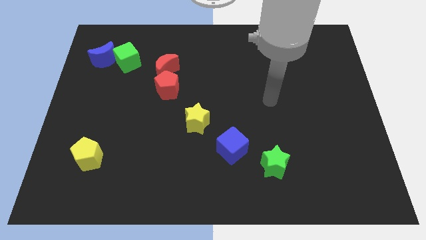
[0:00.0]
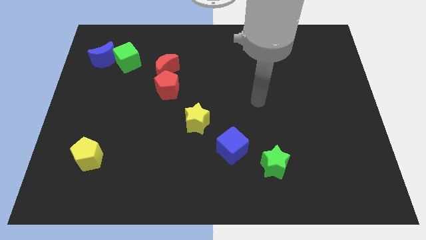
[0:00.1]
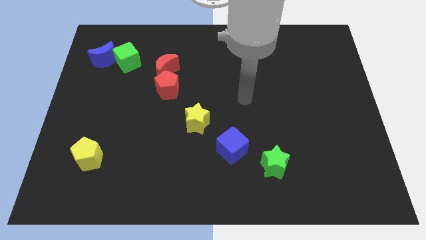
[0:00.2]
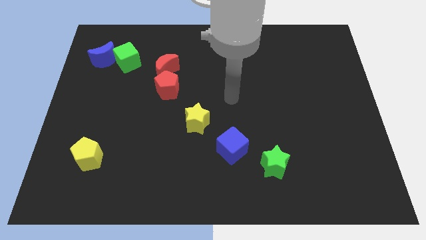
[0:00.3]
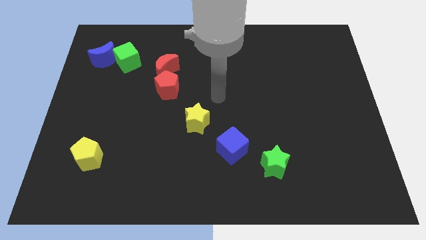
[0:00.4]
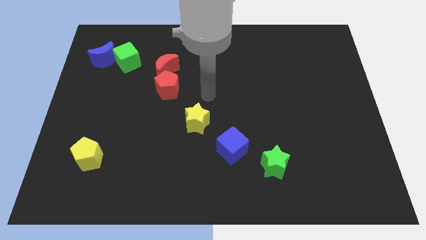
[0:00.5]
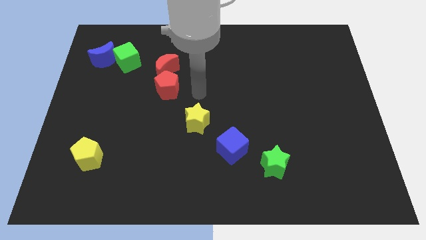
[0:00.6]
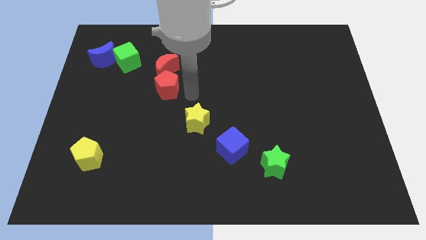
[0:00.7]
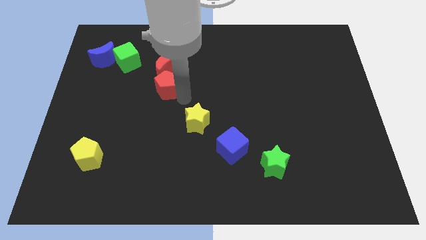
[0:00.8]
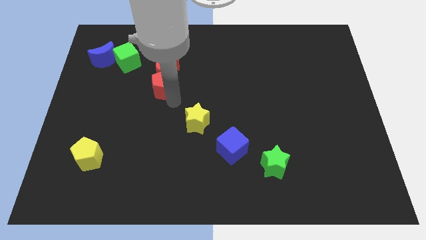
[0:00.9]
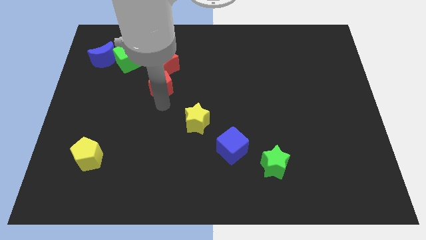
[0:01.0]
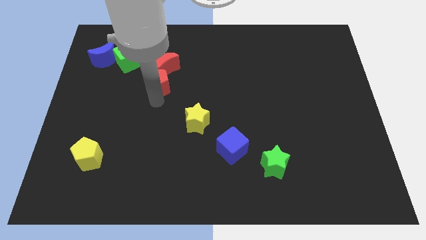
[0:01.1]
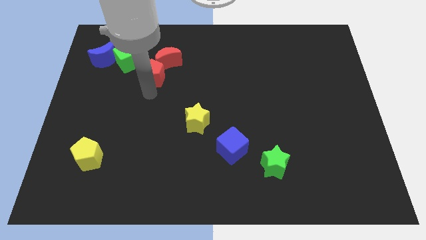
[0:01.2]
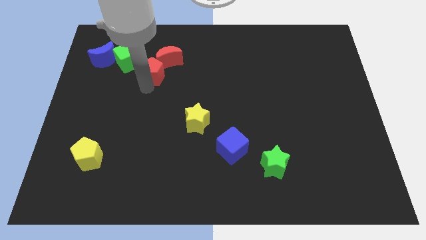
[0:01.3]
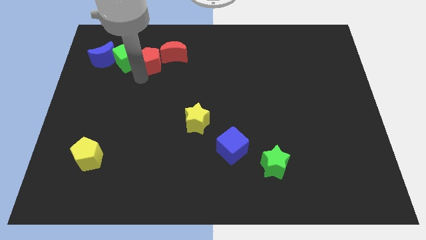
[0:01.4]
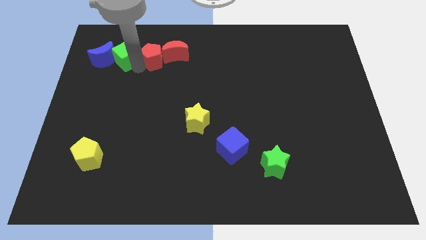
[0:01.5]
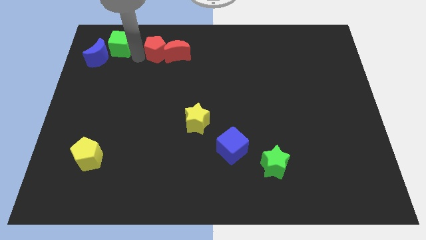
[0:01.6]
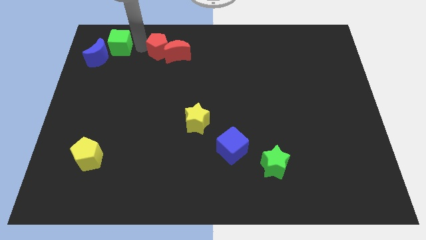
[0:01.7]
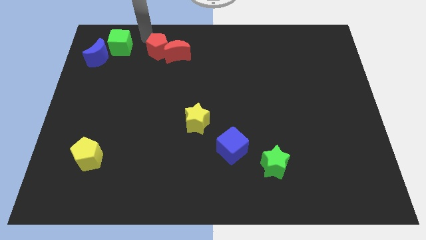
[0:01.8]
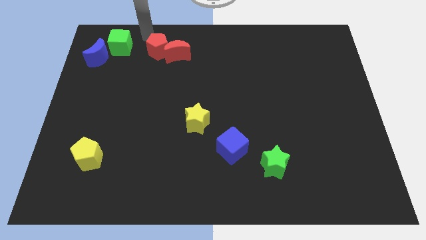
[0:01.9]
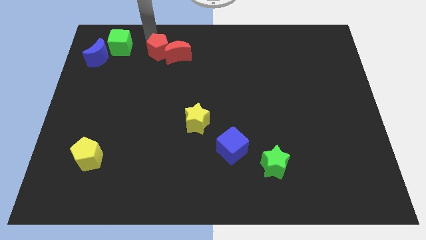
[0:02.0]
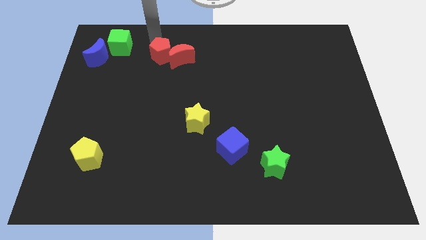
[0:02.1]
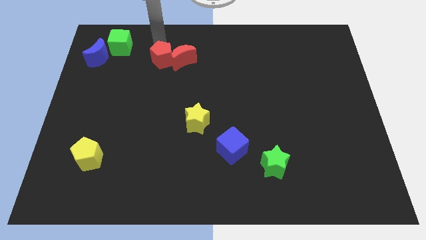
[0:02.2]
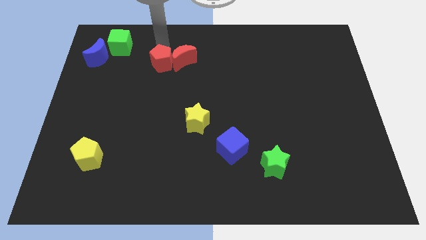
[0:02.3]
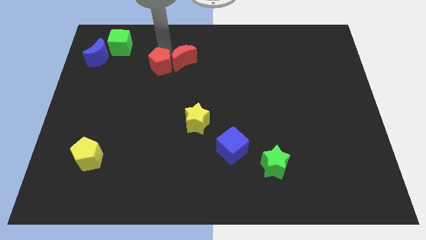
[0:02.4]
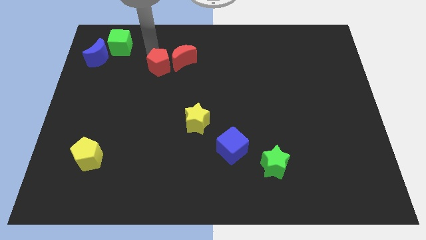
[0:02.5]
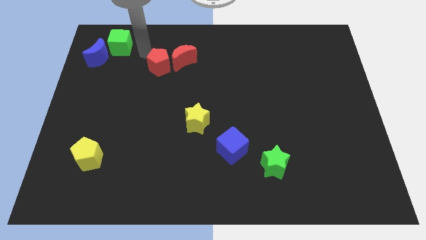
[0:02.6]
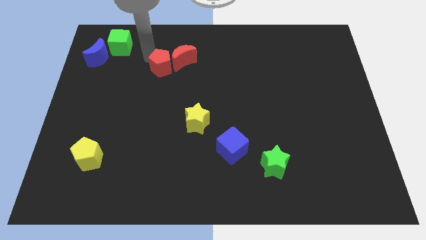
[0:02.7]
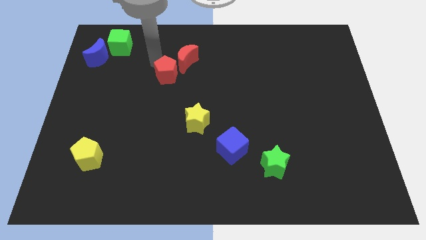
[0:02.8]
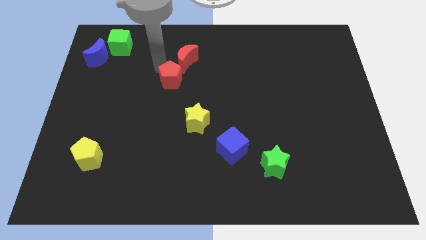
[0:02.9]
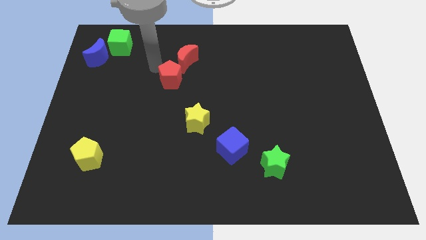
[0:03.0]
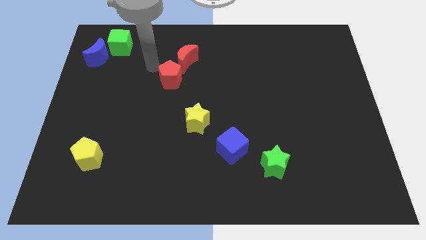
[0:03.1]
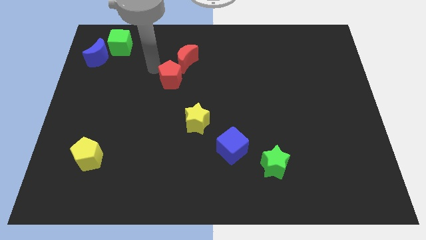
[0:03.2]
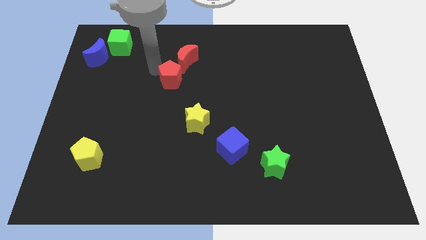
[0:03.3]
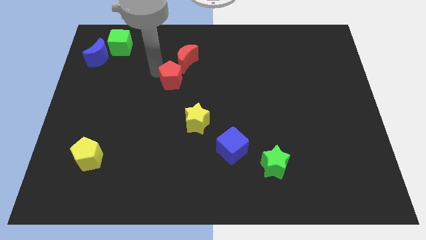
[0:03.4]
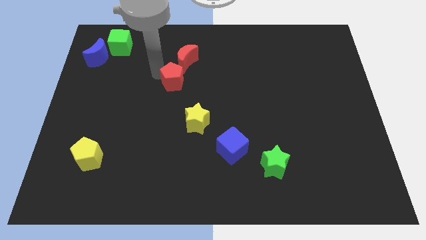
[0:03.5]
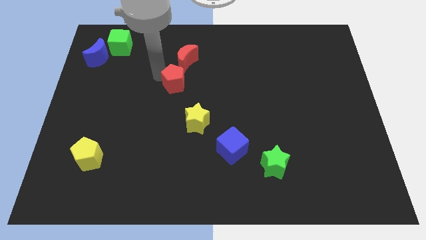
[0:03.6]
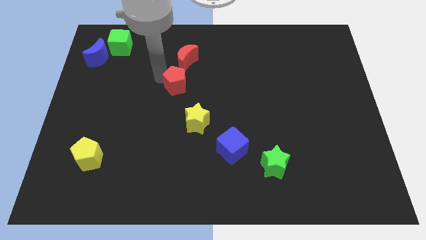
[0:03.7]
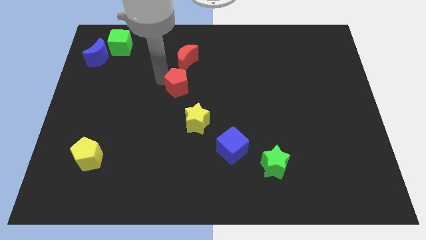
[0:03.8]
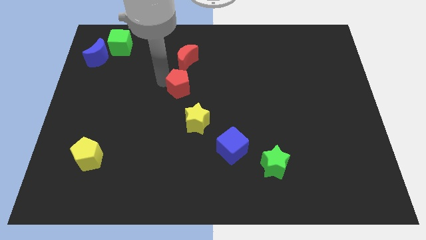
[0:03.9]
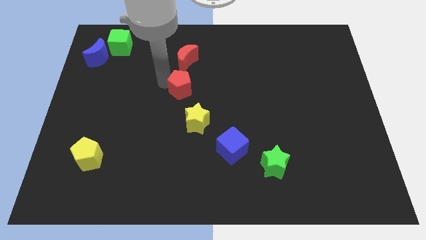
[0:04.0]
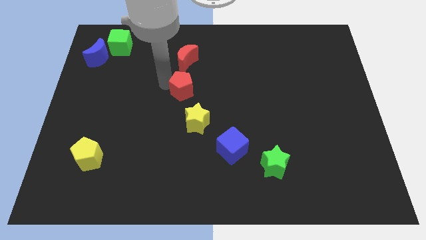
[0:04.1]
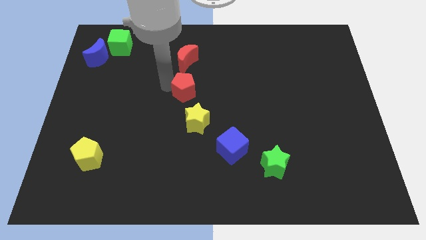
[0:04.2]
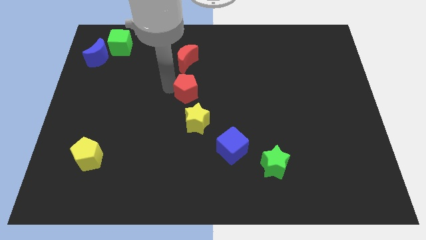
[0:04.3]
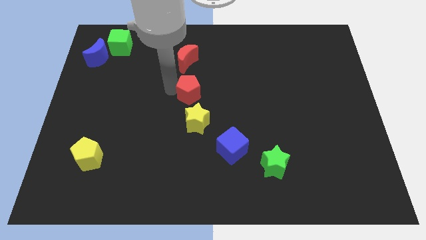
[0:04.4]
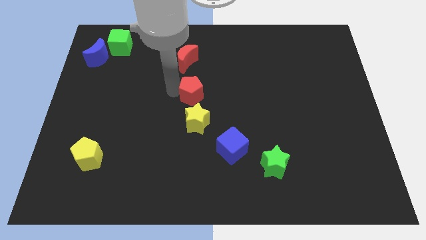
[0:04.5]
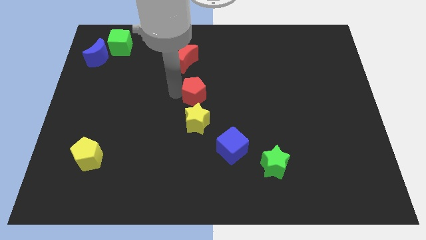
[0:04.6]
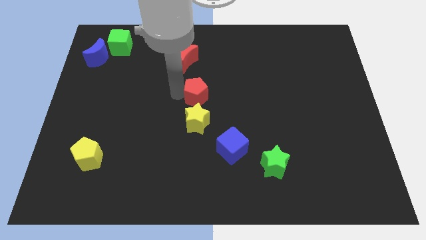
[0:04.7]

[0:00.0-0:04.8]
slightly push the red pentagon right

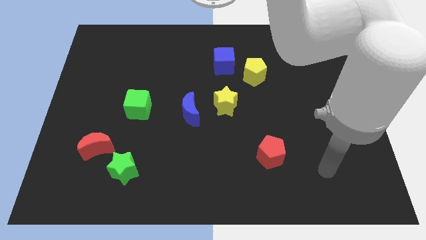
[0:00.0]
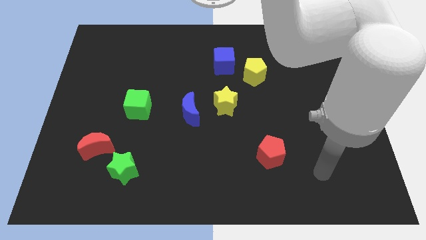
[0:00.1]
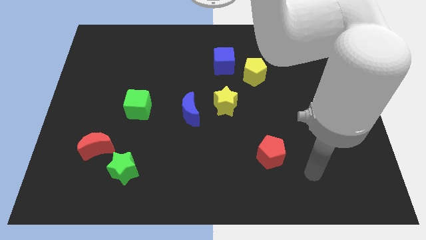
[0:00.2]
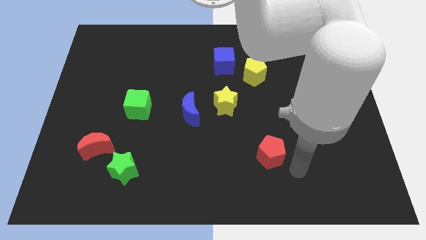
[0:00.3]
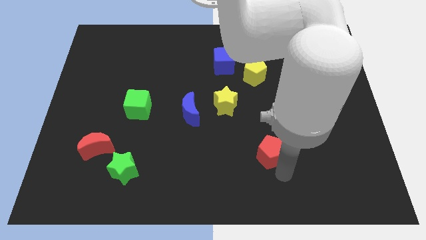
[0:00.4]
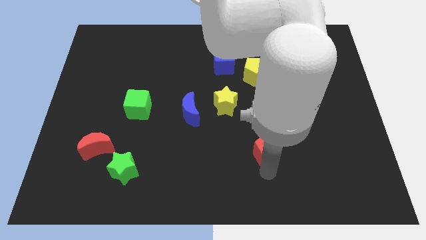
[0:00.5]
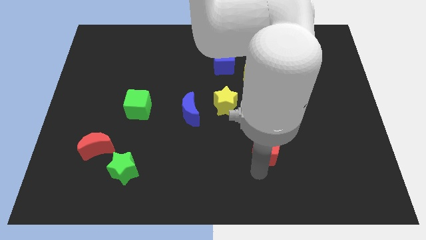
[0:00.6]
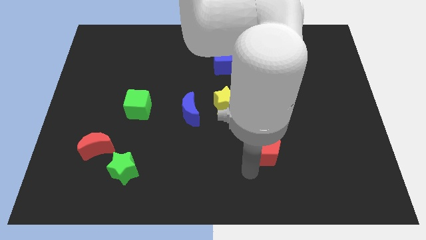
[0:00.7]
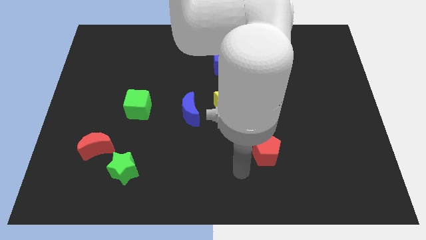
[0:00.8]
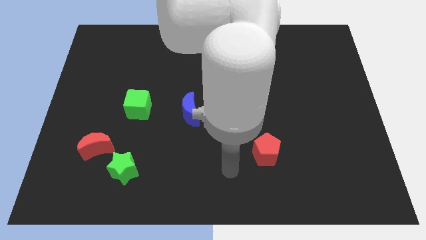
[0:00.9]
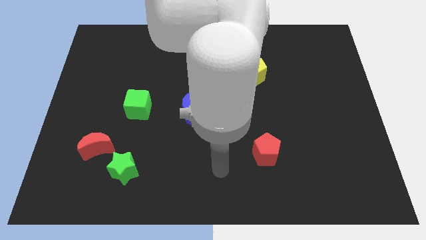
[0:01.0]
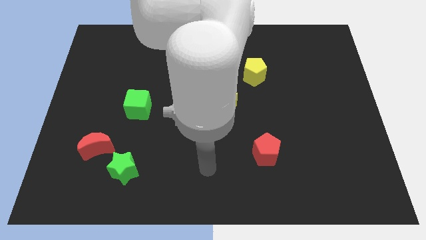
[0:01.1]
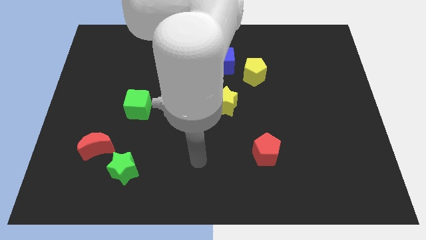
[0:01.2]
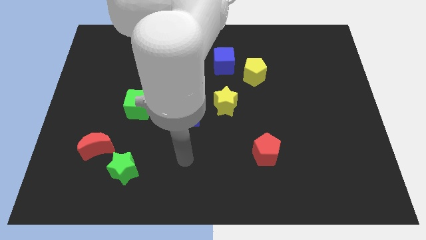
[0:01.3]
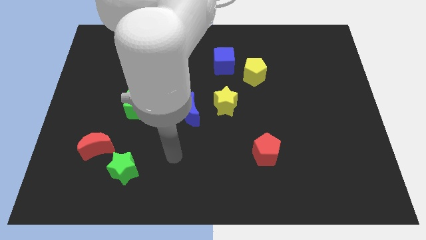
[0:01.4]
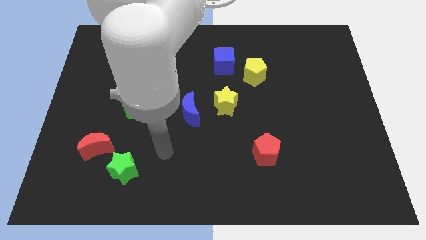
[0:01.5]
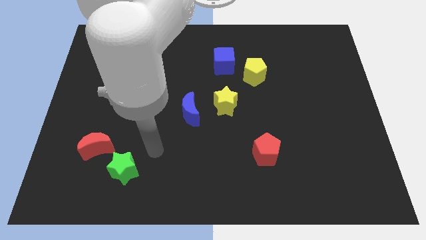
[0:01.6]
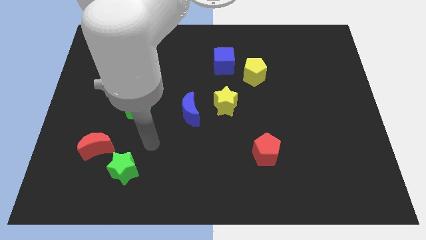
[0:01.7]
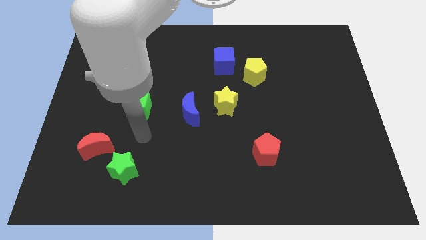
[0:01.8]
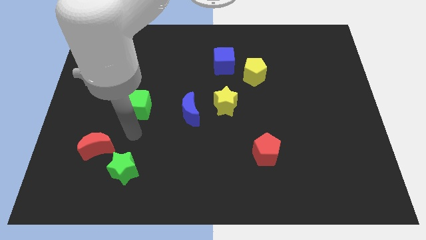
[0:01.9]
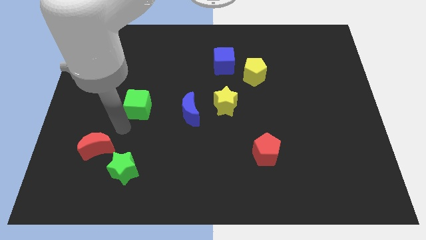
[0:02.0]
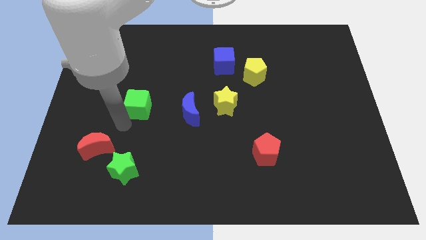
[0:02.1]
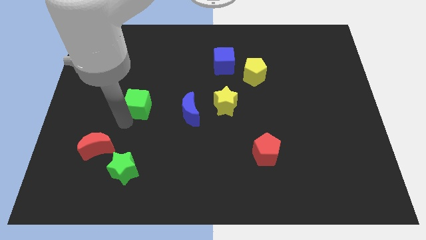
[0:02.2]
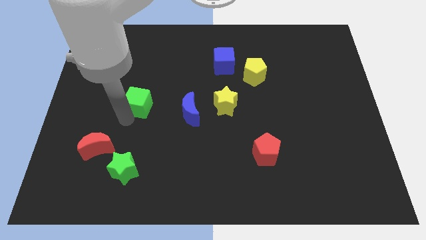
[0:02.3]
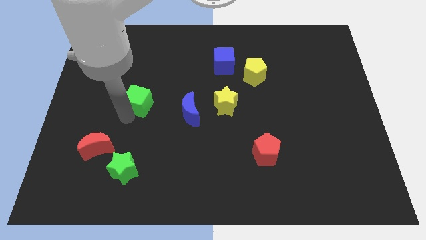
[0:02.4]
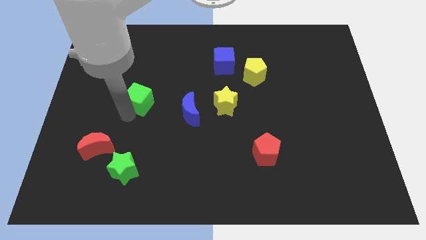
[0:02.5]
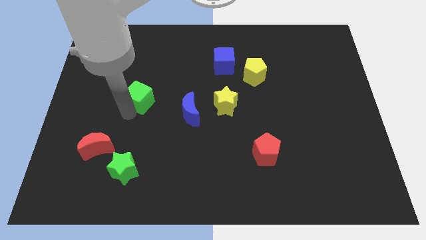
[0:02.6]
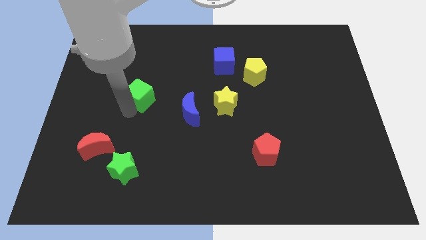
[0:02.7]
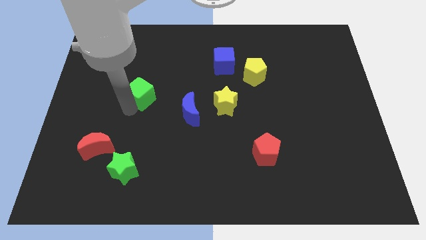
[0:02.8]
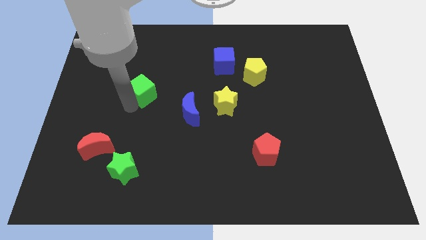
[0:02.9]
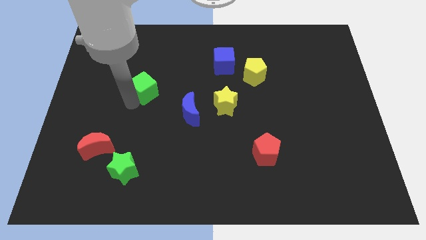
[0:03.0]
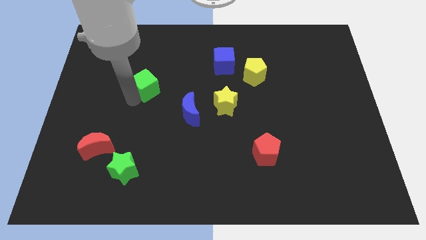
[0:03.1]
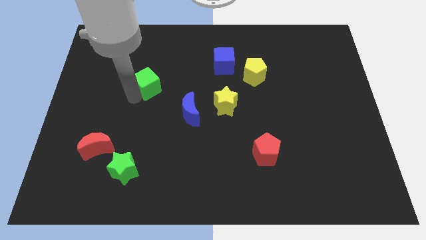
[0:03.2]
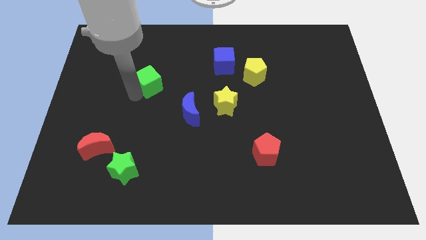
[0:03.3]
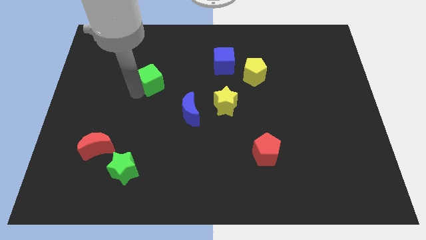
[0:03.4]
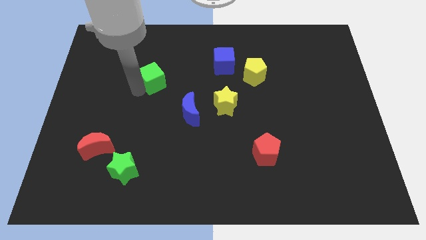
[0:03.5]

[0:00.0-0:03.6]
slide the green cube somewhat upwards and right
